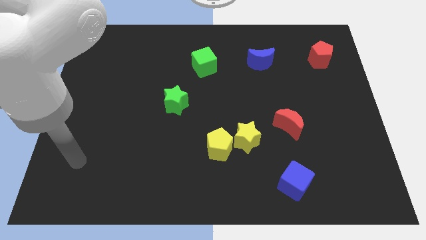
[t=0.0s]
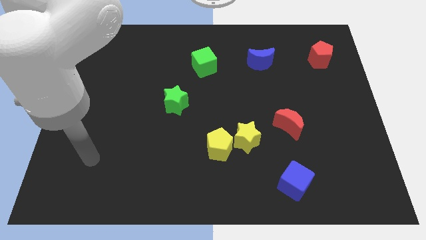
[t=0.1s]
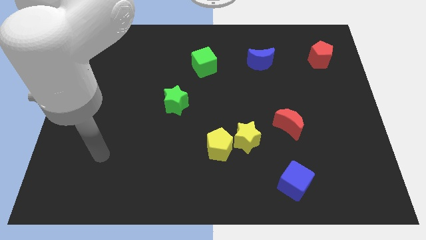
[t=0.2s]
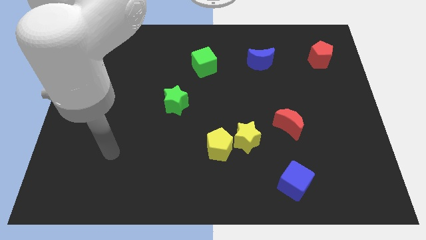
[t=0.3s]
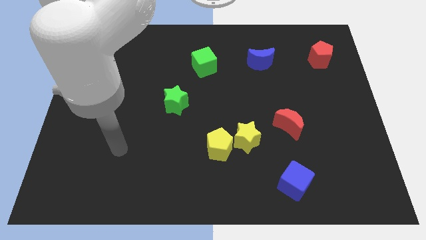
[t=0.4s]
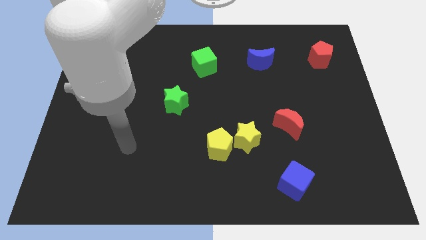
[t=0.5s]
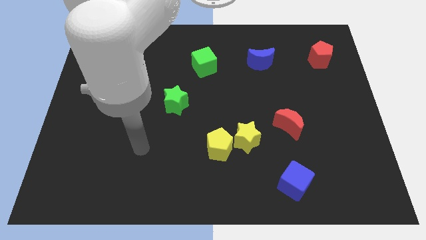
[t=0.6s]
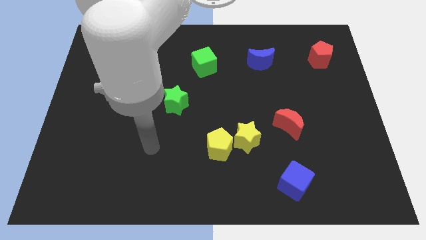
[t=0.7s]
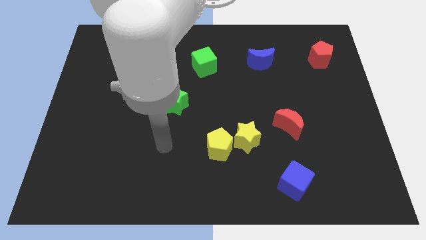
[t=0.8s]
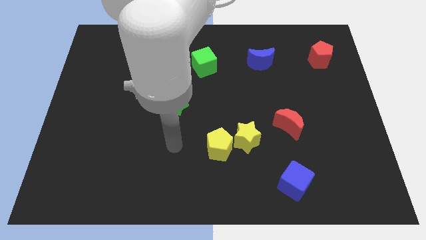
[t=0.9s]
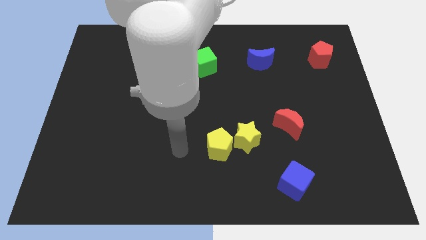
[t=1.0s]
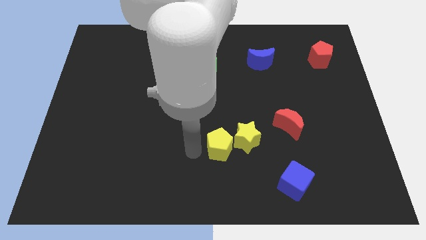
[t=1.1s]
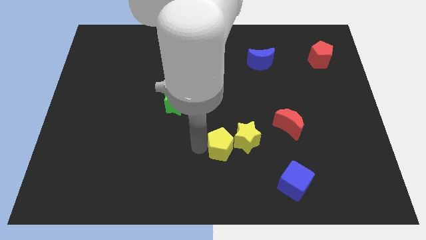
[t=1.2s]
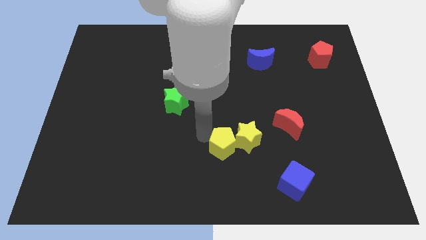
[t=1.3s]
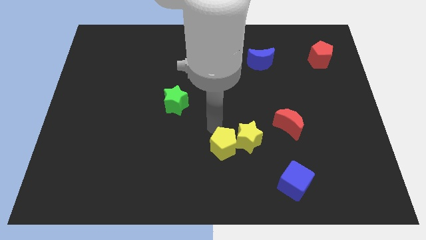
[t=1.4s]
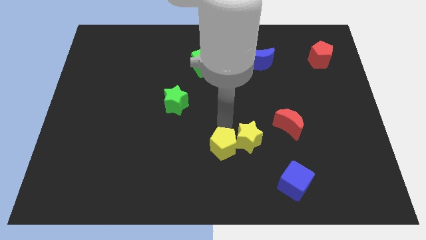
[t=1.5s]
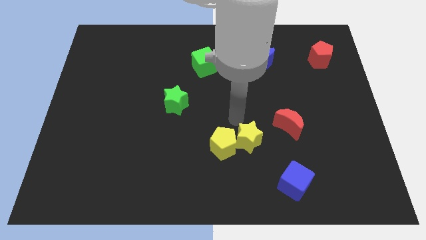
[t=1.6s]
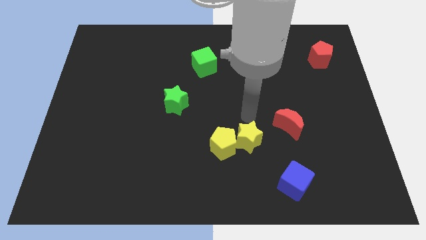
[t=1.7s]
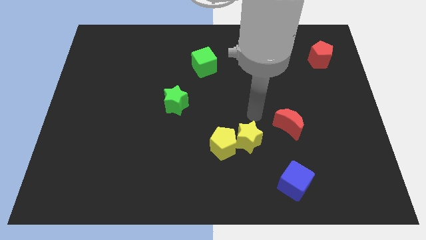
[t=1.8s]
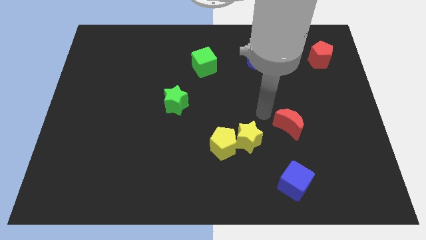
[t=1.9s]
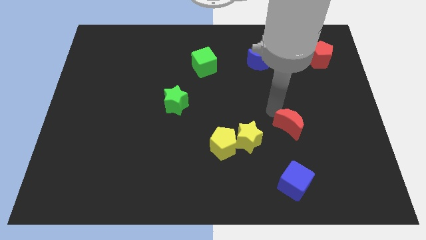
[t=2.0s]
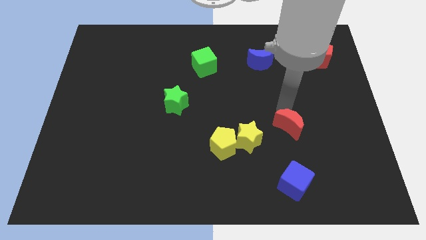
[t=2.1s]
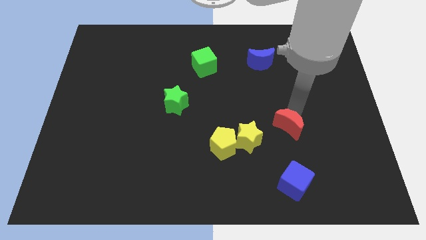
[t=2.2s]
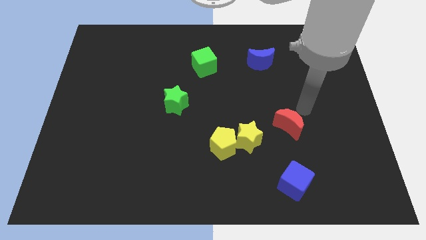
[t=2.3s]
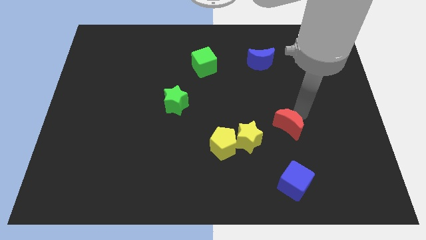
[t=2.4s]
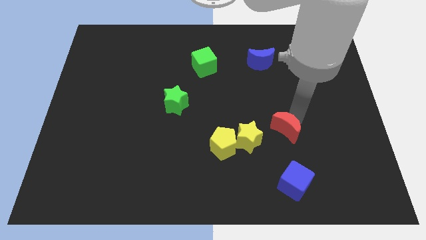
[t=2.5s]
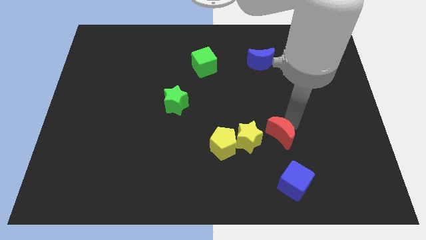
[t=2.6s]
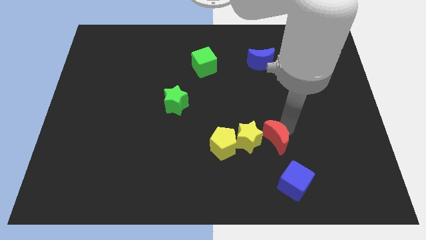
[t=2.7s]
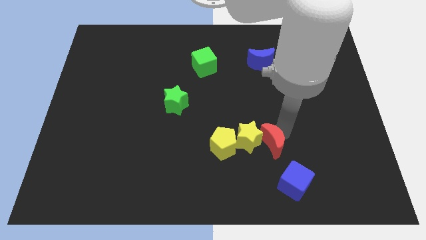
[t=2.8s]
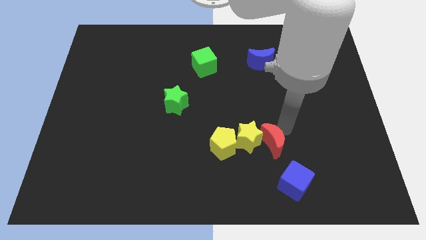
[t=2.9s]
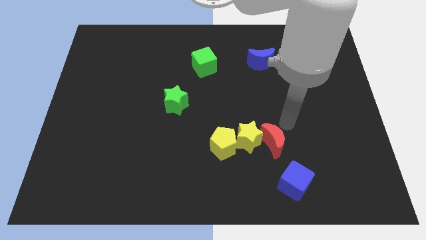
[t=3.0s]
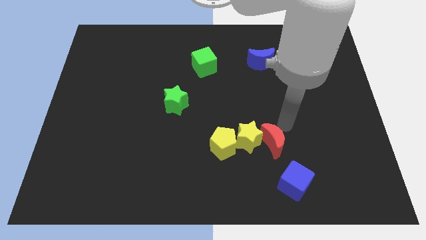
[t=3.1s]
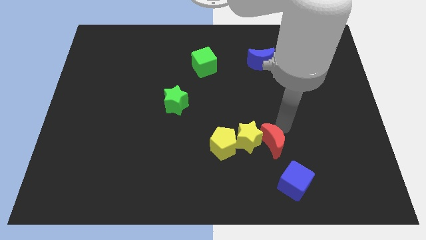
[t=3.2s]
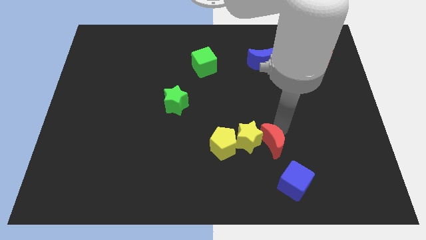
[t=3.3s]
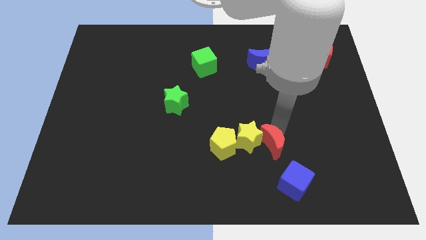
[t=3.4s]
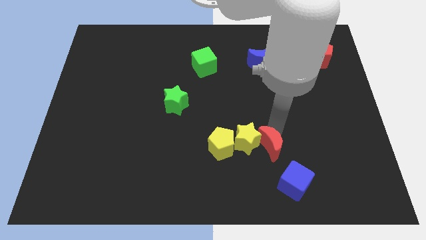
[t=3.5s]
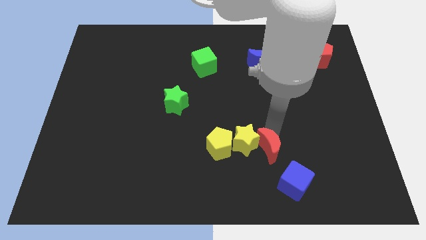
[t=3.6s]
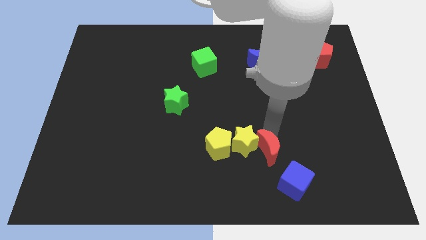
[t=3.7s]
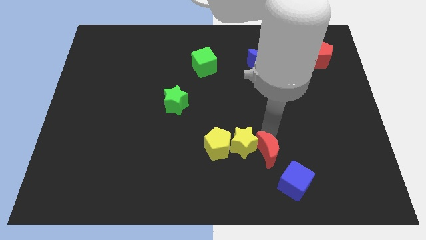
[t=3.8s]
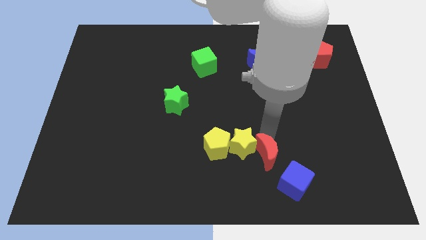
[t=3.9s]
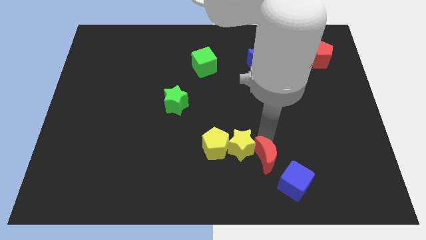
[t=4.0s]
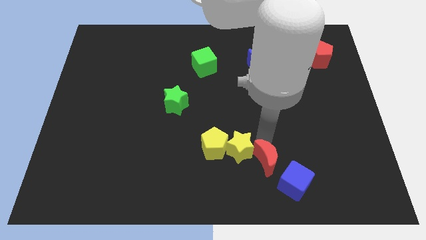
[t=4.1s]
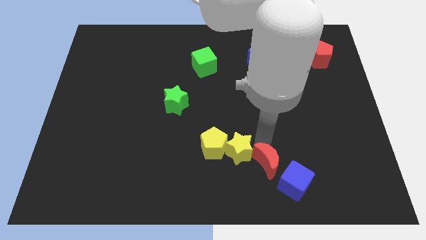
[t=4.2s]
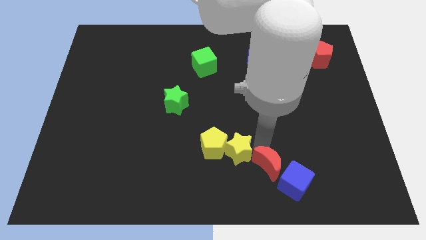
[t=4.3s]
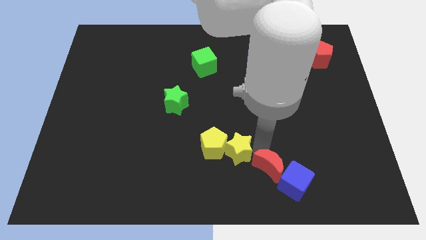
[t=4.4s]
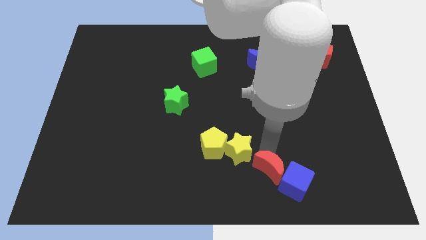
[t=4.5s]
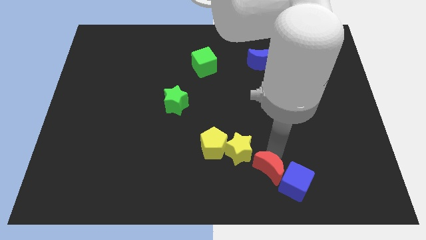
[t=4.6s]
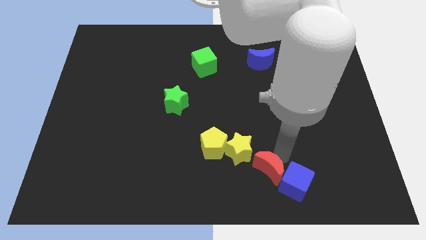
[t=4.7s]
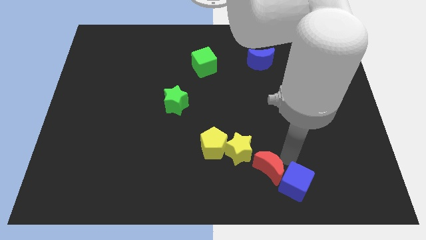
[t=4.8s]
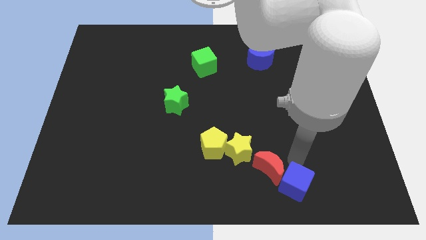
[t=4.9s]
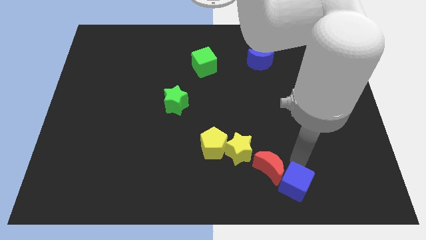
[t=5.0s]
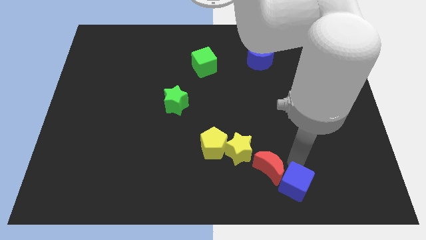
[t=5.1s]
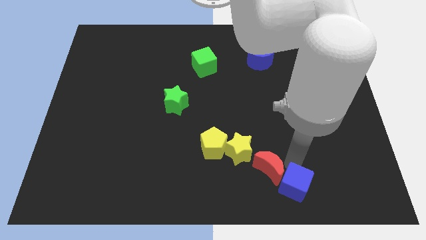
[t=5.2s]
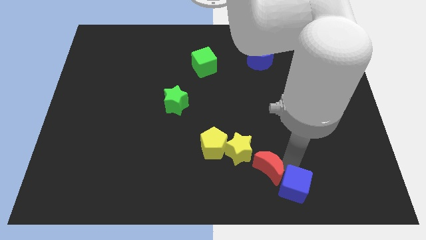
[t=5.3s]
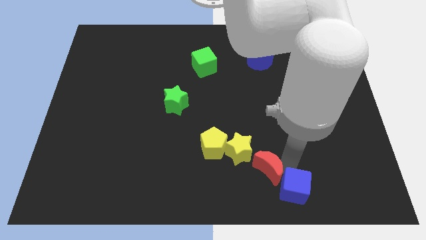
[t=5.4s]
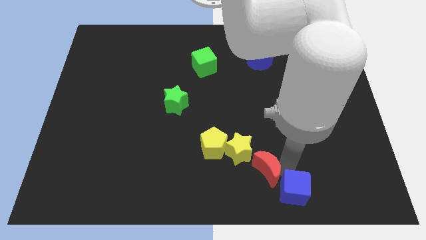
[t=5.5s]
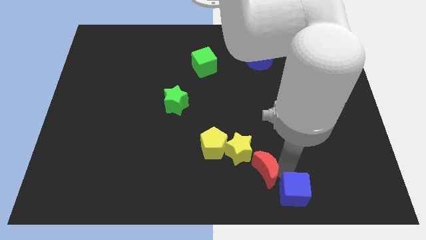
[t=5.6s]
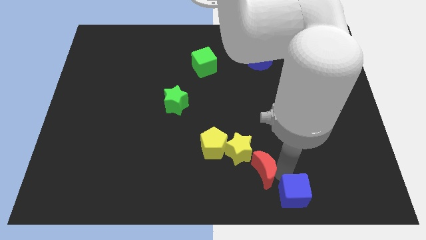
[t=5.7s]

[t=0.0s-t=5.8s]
push the red moon to the bottom side

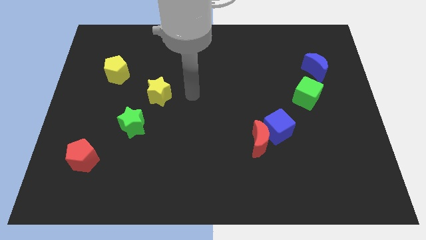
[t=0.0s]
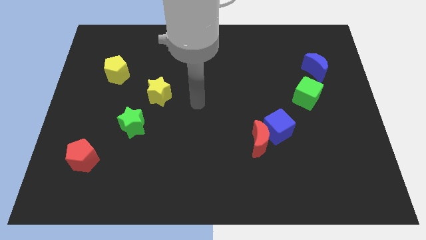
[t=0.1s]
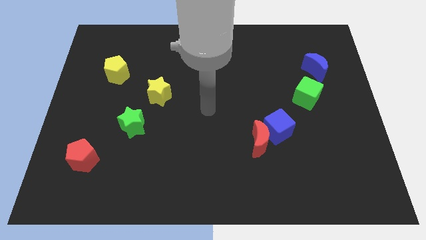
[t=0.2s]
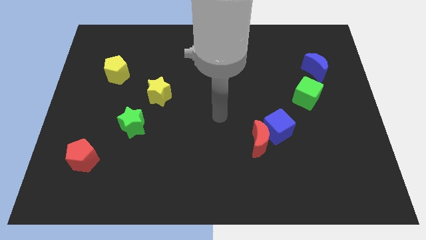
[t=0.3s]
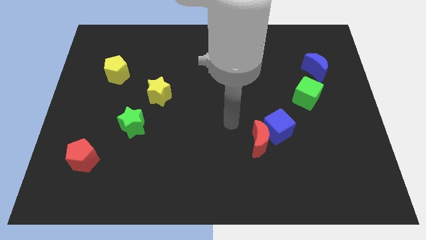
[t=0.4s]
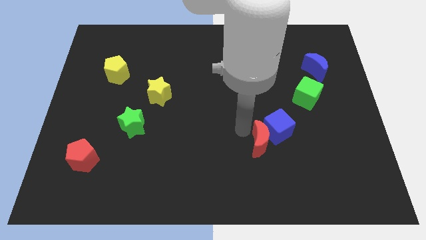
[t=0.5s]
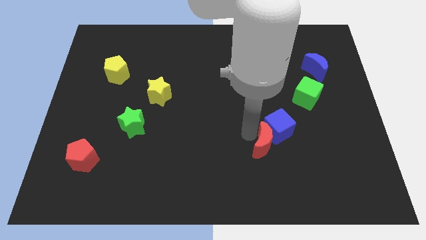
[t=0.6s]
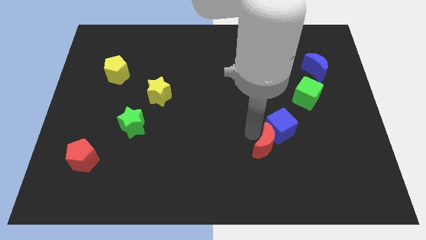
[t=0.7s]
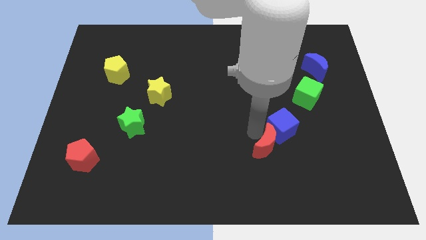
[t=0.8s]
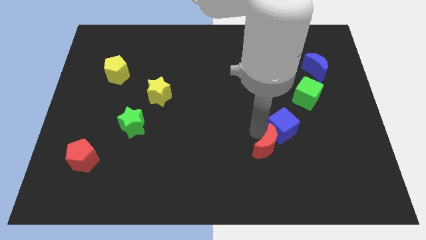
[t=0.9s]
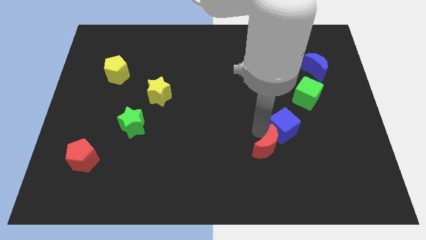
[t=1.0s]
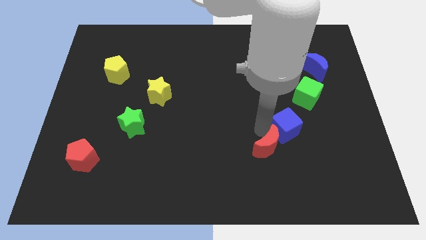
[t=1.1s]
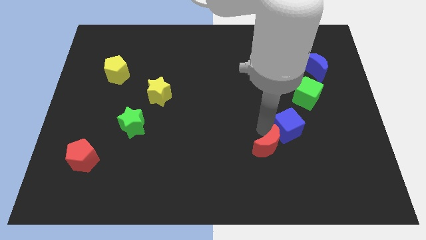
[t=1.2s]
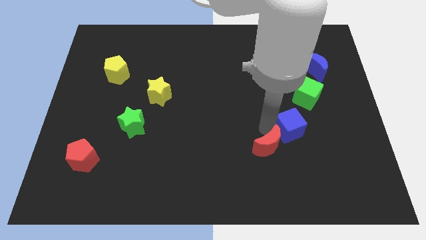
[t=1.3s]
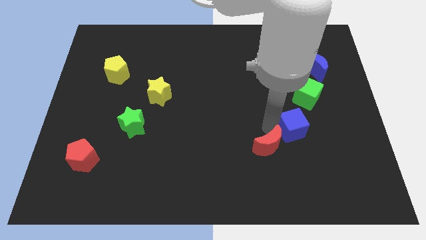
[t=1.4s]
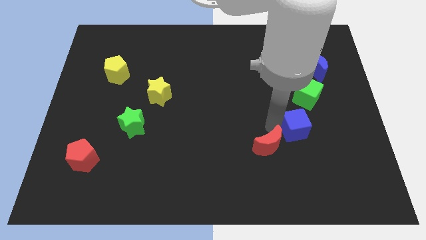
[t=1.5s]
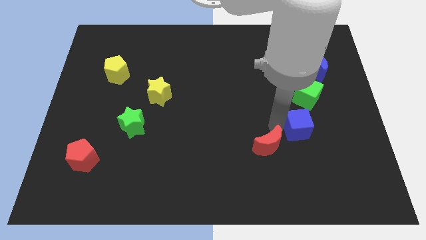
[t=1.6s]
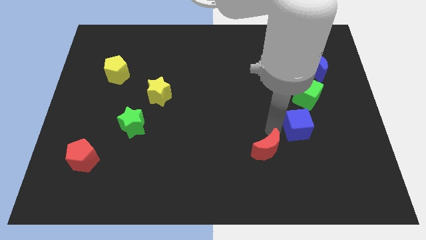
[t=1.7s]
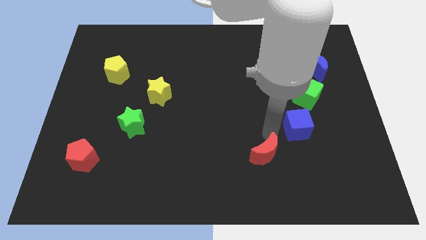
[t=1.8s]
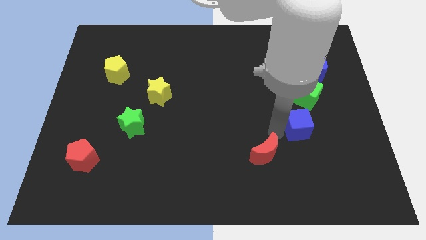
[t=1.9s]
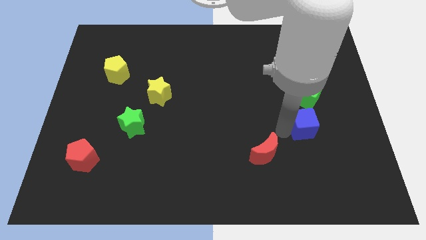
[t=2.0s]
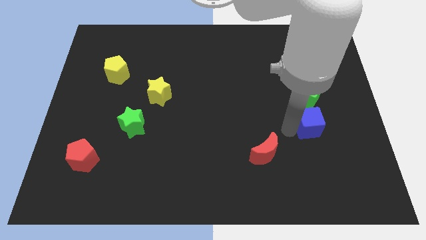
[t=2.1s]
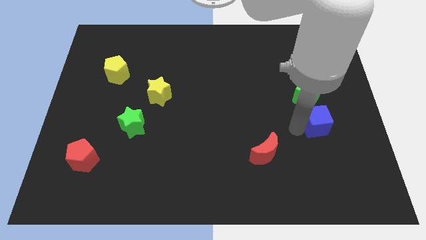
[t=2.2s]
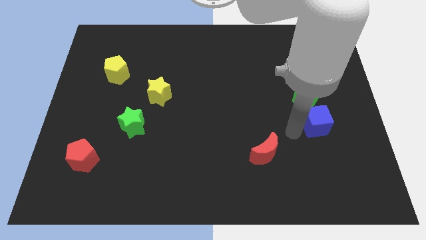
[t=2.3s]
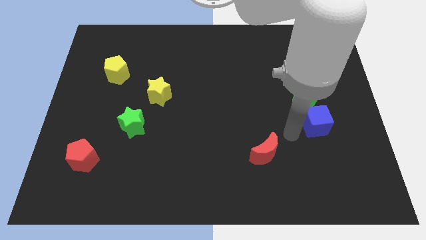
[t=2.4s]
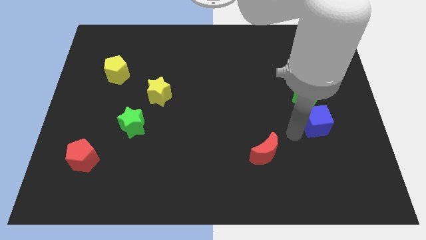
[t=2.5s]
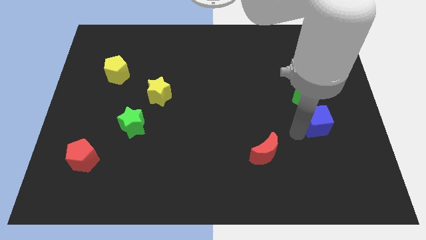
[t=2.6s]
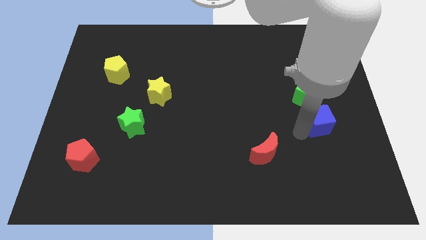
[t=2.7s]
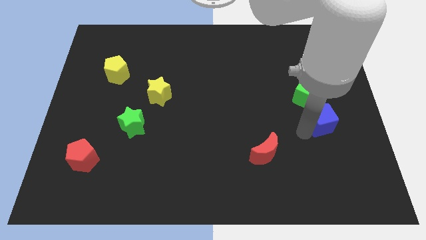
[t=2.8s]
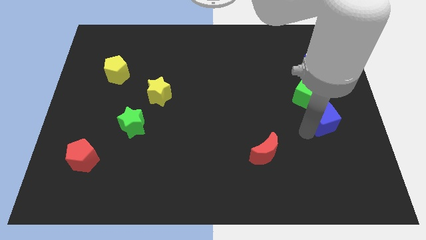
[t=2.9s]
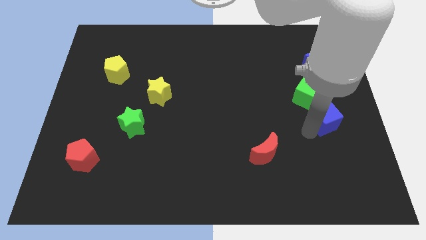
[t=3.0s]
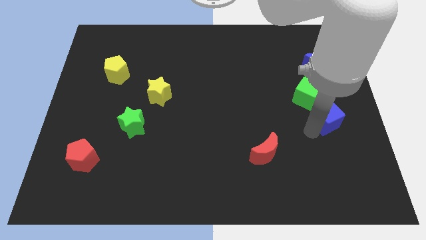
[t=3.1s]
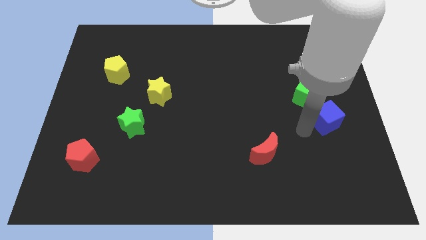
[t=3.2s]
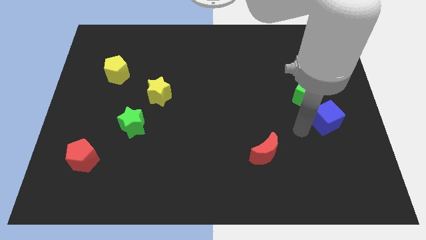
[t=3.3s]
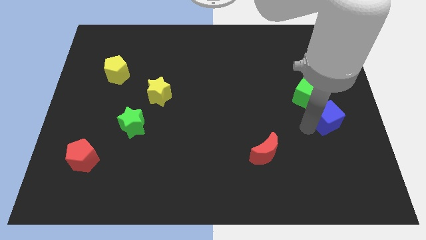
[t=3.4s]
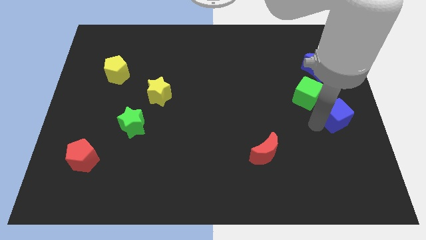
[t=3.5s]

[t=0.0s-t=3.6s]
move the blue cube to the center right
